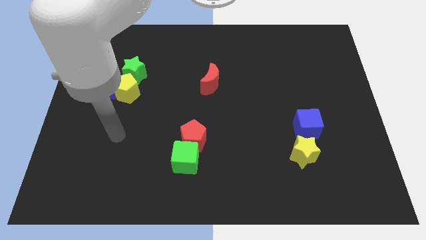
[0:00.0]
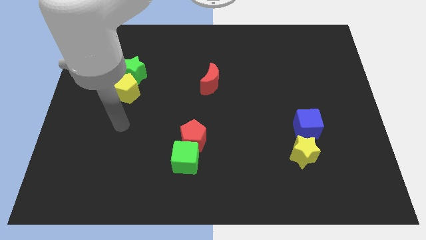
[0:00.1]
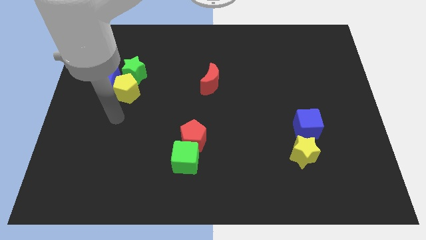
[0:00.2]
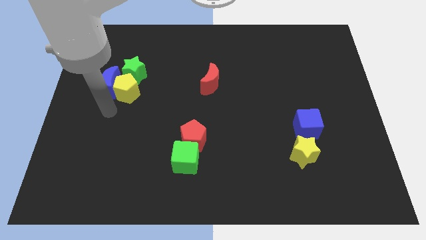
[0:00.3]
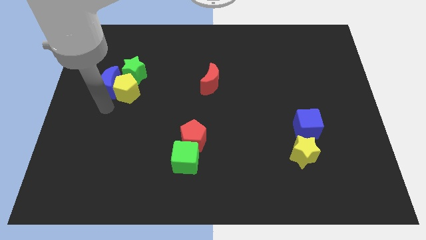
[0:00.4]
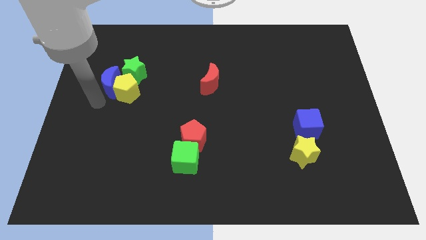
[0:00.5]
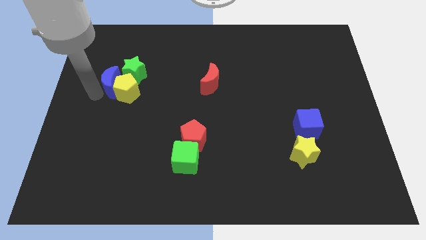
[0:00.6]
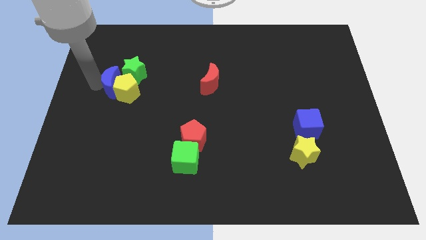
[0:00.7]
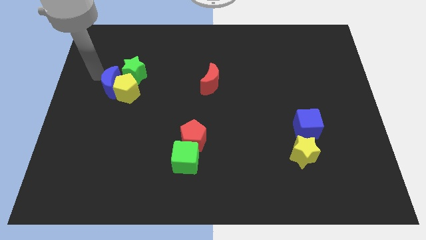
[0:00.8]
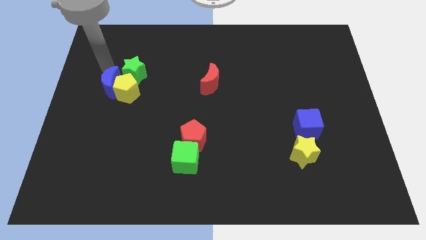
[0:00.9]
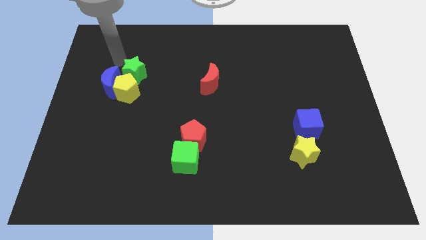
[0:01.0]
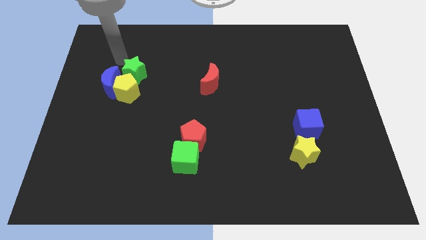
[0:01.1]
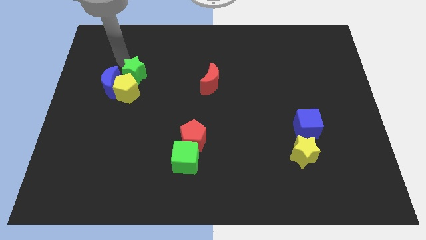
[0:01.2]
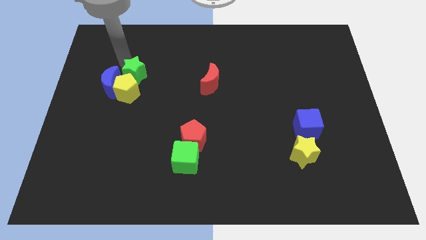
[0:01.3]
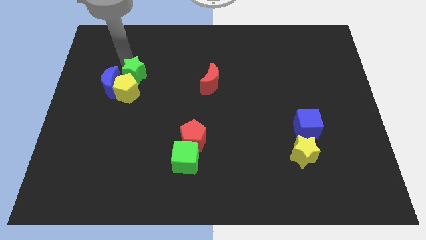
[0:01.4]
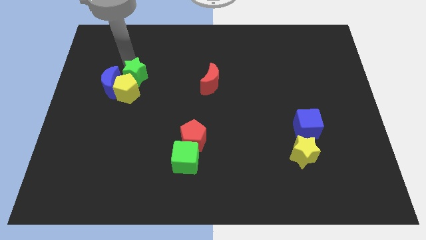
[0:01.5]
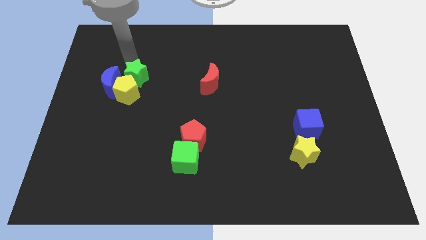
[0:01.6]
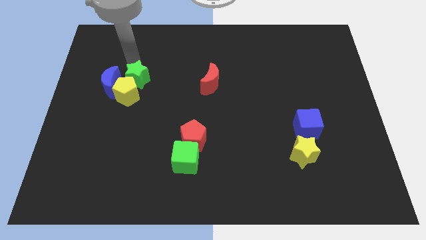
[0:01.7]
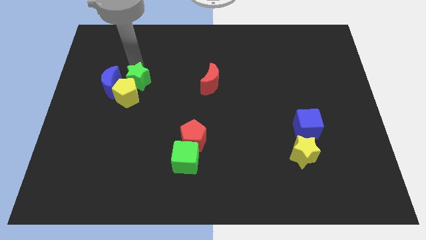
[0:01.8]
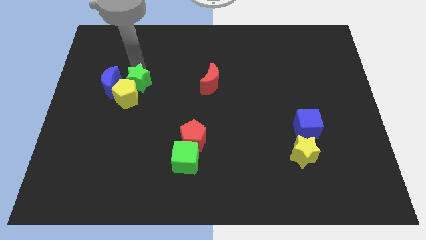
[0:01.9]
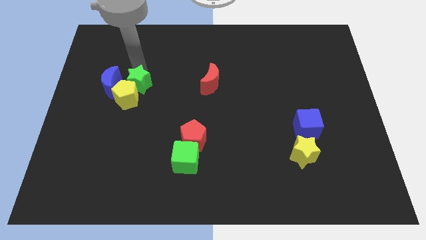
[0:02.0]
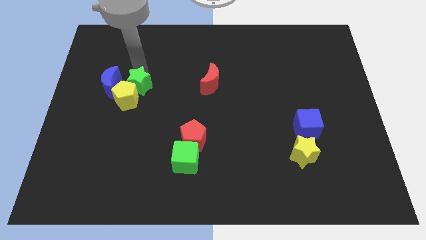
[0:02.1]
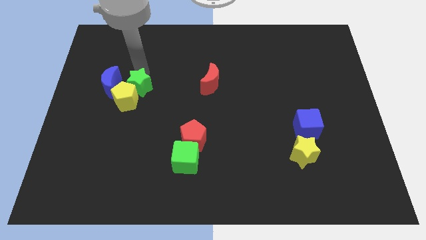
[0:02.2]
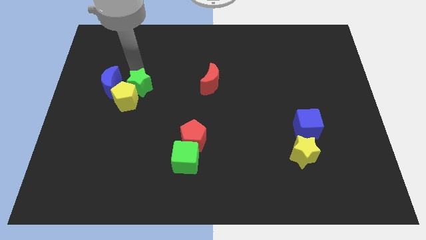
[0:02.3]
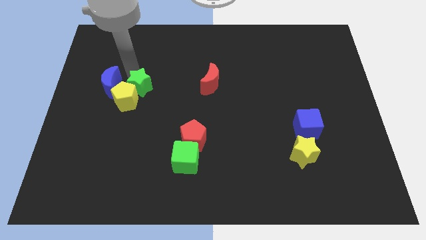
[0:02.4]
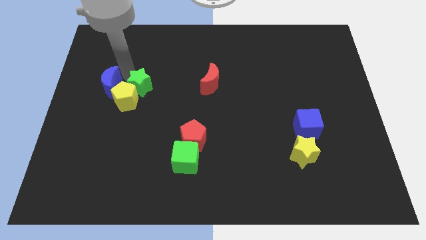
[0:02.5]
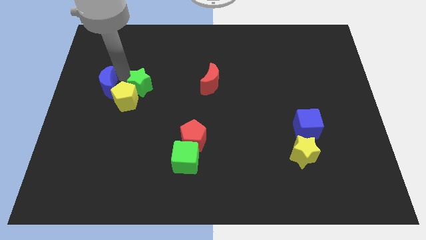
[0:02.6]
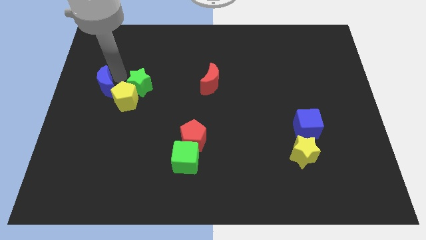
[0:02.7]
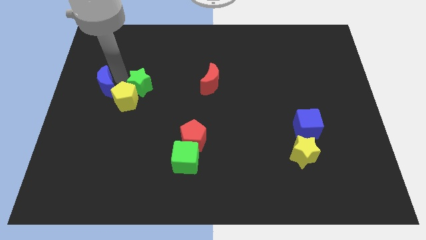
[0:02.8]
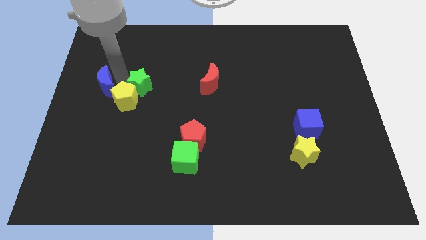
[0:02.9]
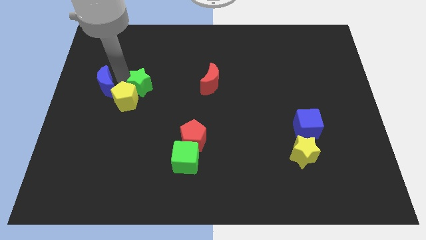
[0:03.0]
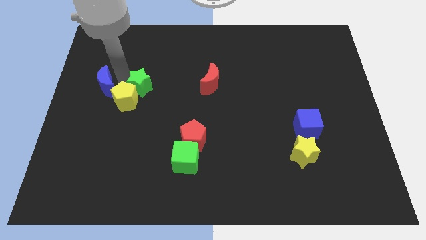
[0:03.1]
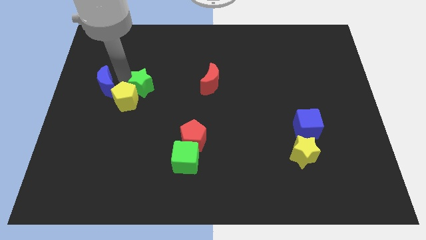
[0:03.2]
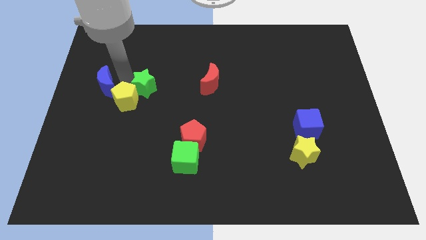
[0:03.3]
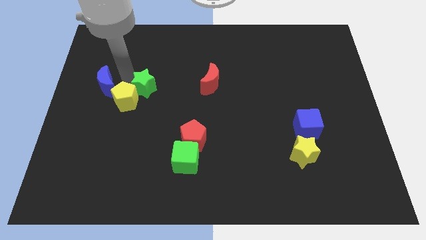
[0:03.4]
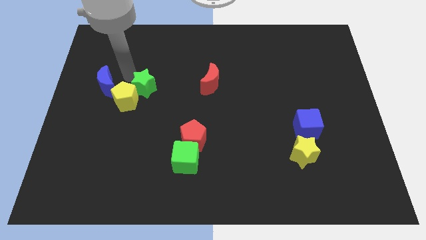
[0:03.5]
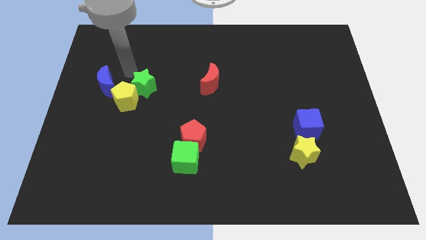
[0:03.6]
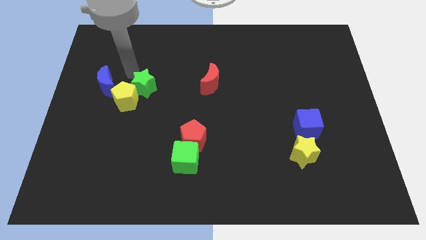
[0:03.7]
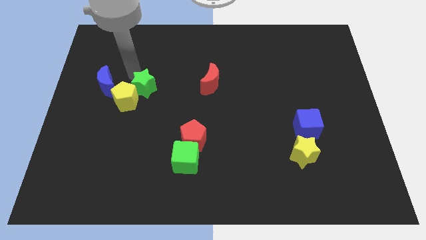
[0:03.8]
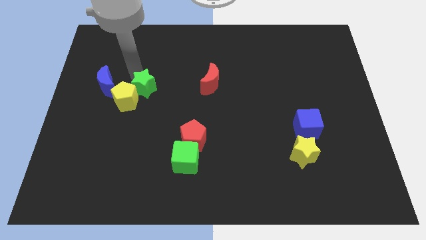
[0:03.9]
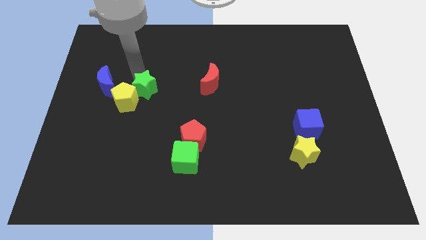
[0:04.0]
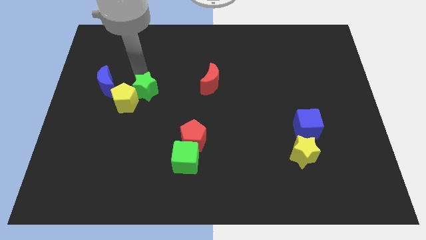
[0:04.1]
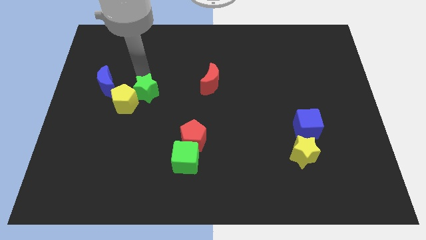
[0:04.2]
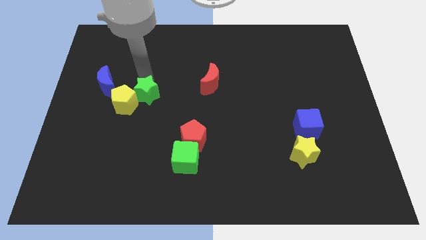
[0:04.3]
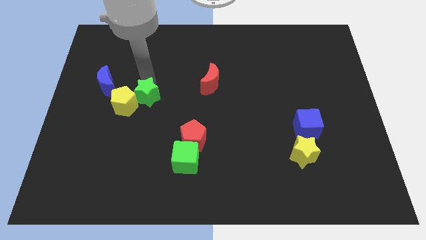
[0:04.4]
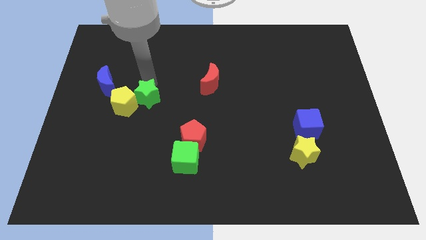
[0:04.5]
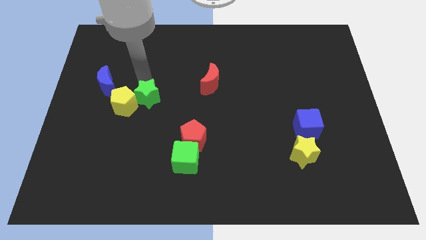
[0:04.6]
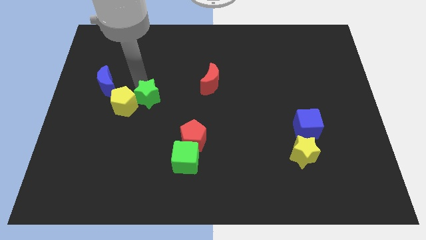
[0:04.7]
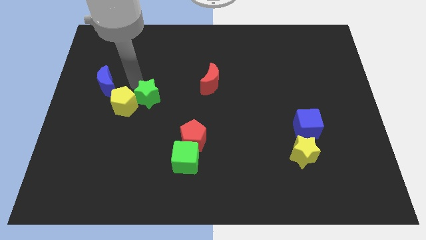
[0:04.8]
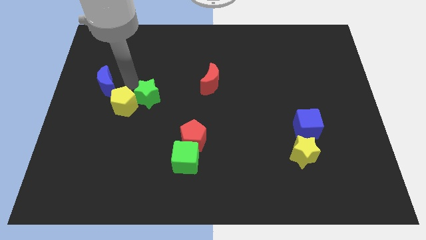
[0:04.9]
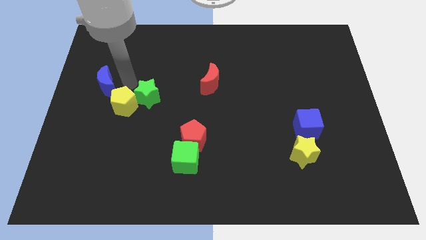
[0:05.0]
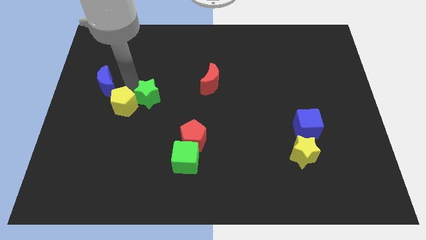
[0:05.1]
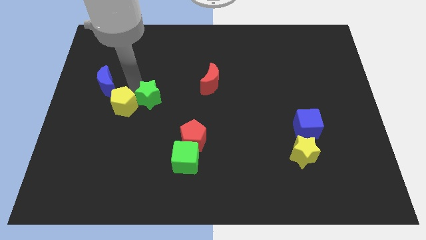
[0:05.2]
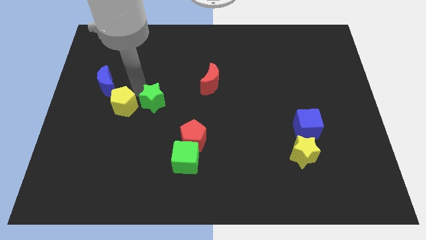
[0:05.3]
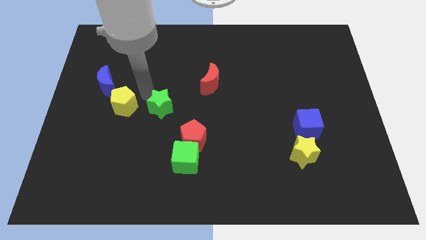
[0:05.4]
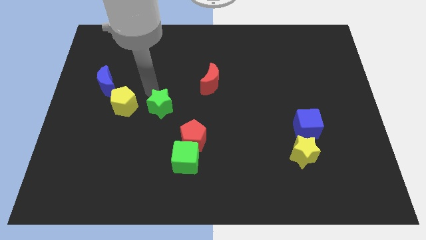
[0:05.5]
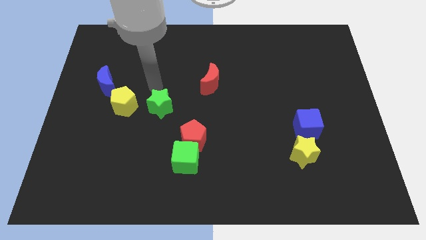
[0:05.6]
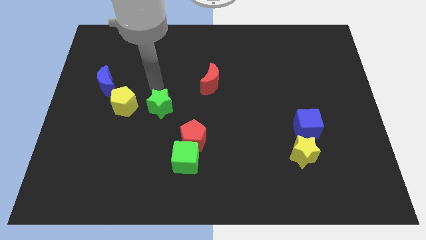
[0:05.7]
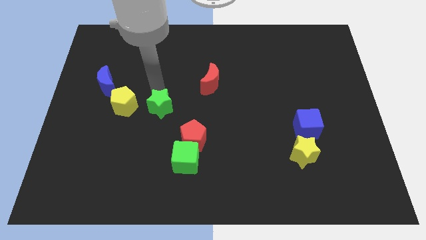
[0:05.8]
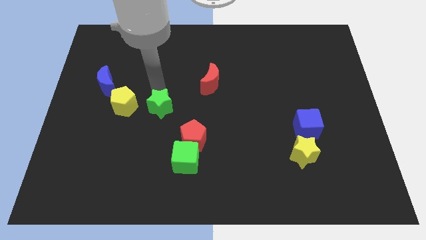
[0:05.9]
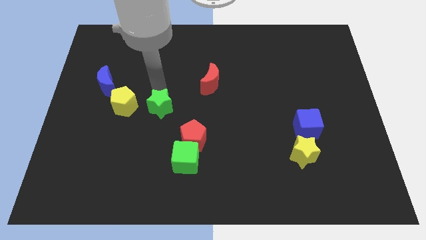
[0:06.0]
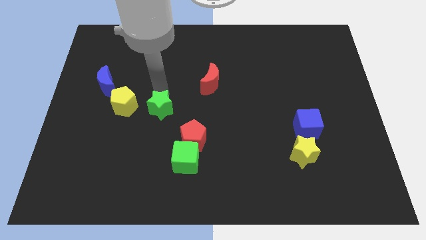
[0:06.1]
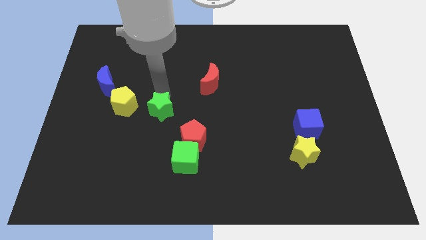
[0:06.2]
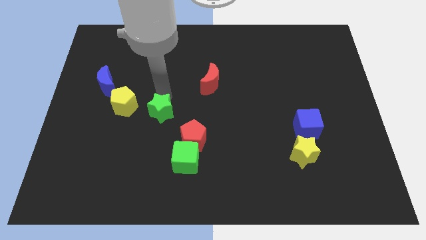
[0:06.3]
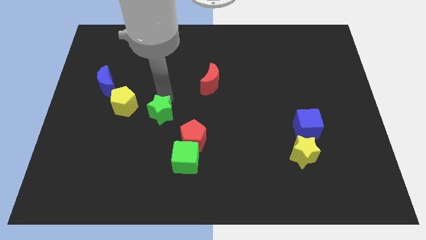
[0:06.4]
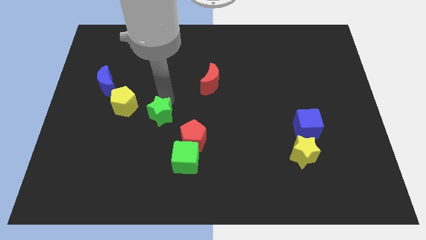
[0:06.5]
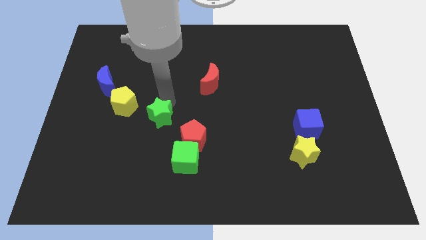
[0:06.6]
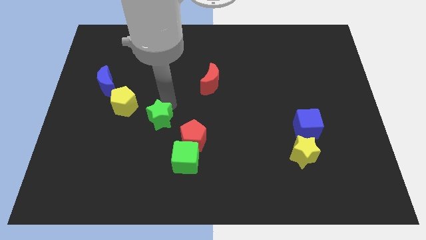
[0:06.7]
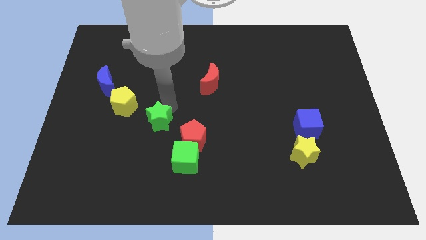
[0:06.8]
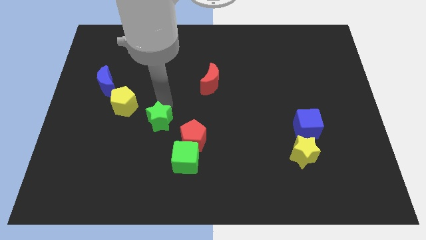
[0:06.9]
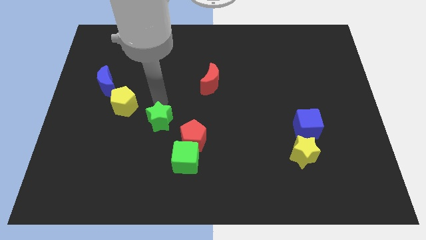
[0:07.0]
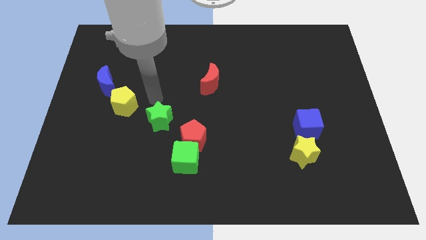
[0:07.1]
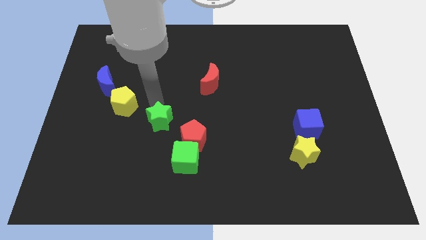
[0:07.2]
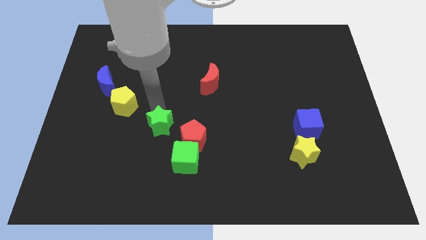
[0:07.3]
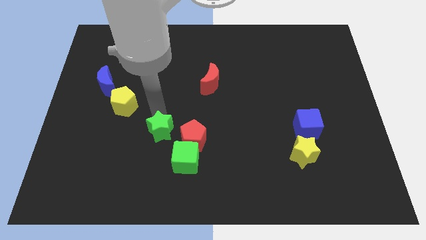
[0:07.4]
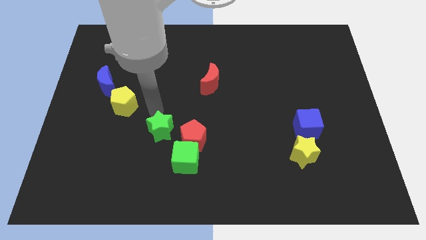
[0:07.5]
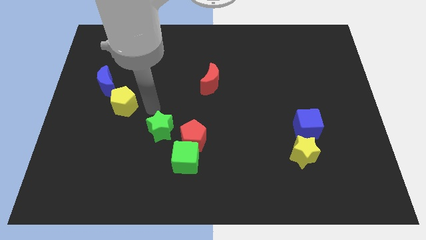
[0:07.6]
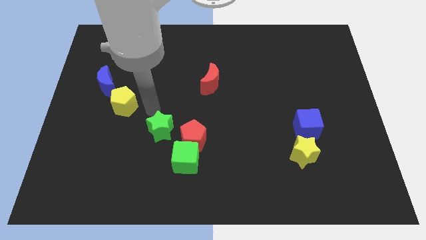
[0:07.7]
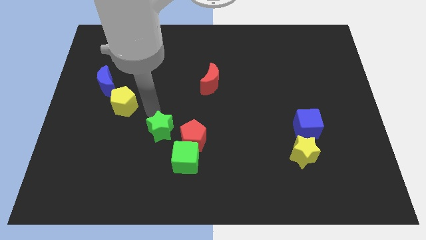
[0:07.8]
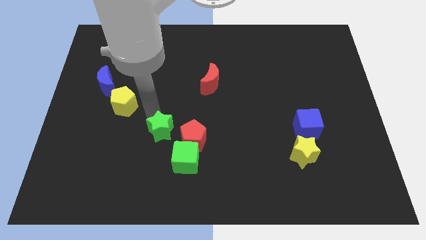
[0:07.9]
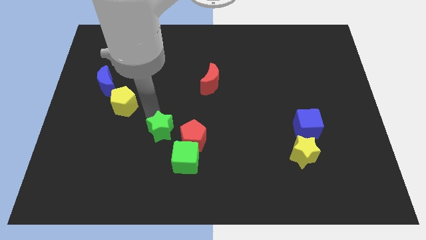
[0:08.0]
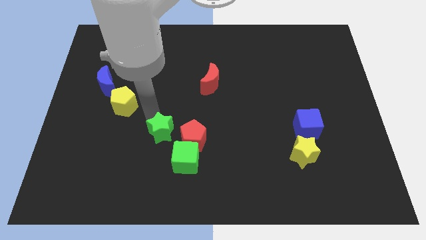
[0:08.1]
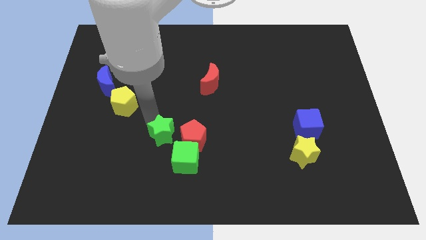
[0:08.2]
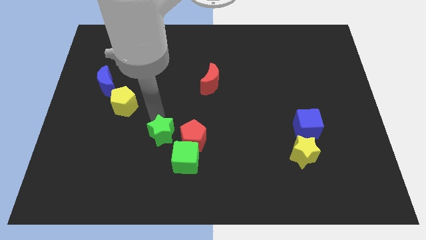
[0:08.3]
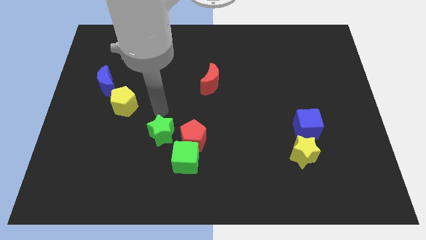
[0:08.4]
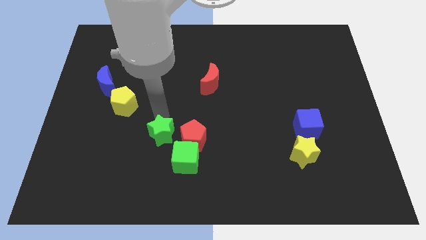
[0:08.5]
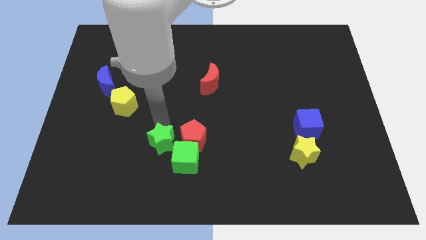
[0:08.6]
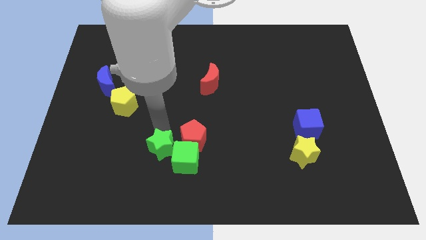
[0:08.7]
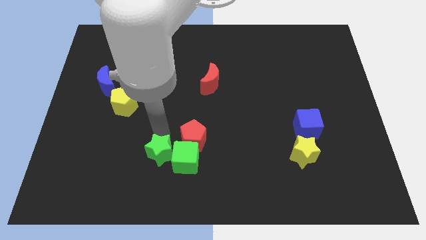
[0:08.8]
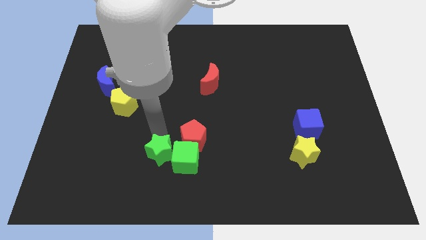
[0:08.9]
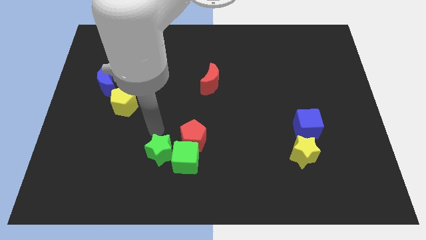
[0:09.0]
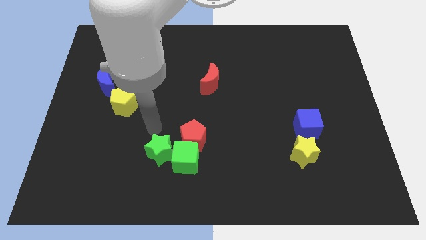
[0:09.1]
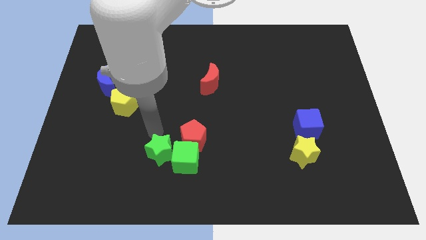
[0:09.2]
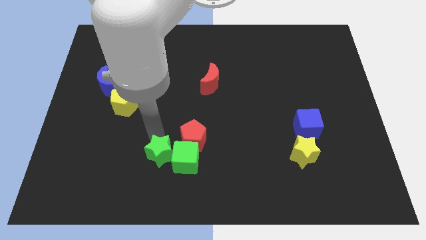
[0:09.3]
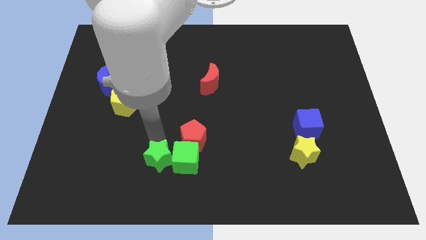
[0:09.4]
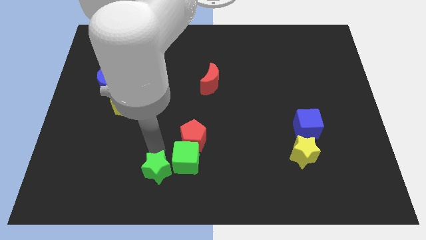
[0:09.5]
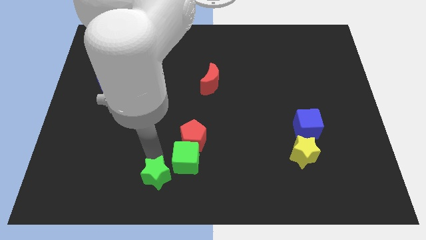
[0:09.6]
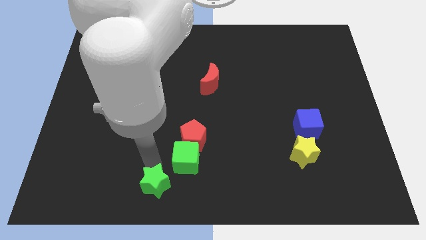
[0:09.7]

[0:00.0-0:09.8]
put the green star to the bottom side
